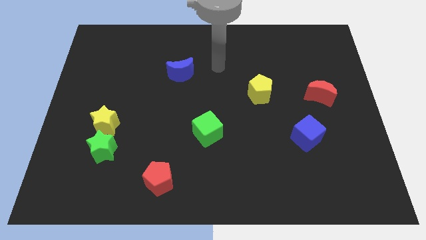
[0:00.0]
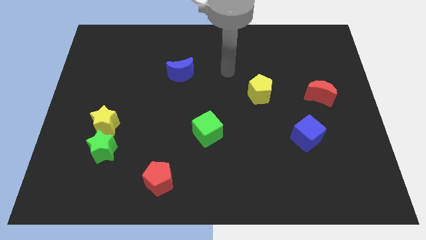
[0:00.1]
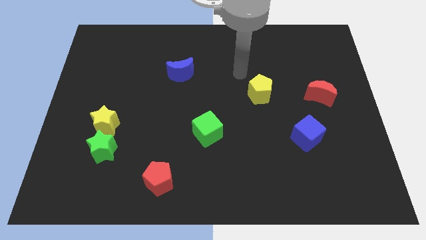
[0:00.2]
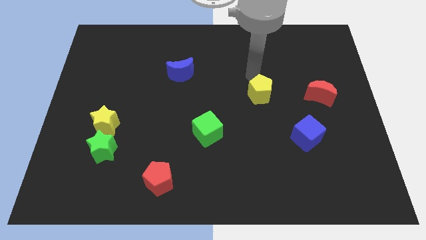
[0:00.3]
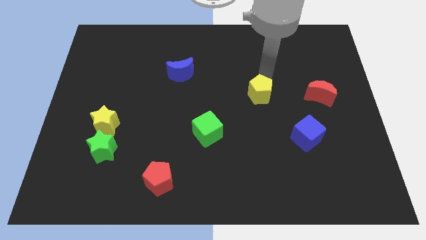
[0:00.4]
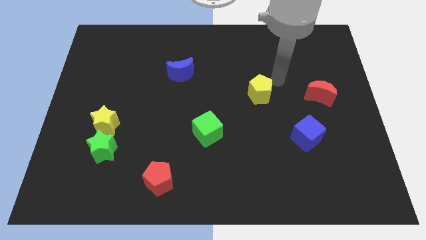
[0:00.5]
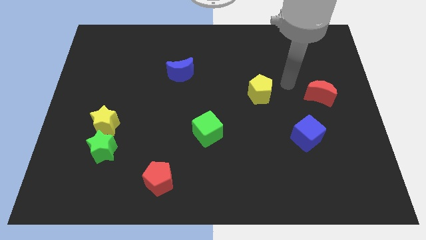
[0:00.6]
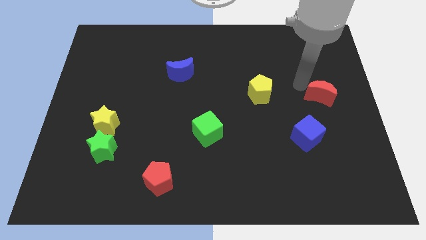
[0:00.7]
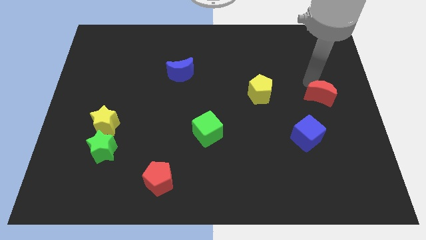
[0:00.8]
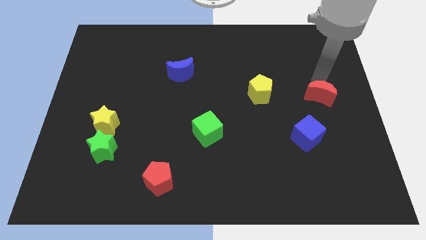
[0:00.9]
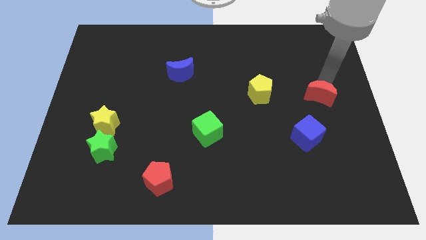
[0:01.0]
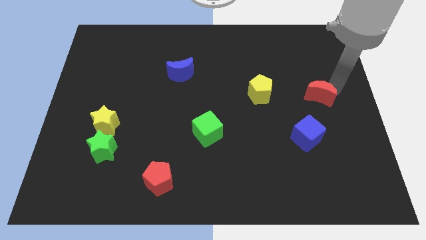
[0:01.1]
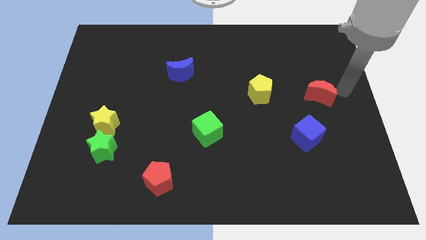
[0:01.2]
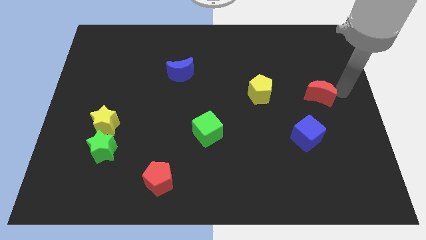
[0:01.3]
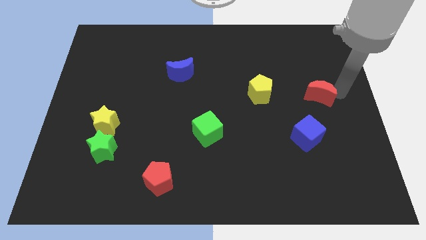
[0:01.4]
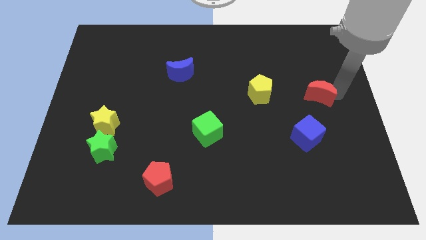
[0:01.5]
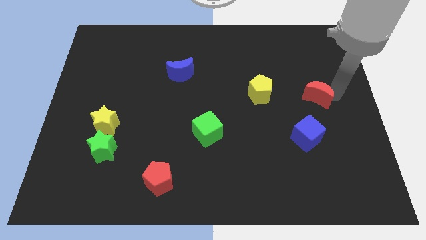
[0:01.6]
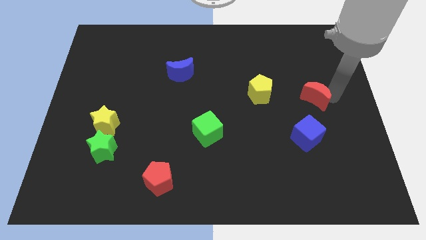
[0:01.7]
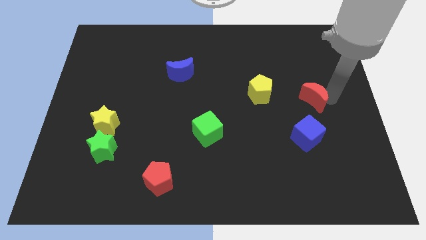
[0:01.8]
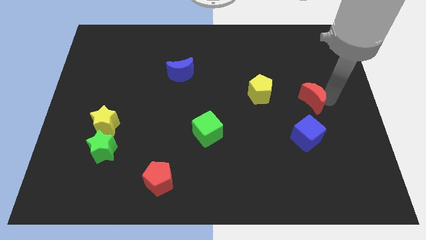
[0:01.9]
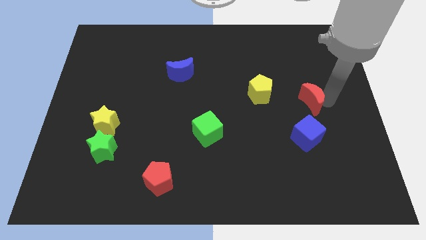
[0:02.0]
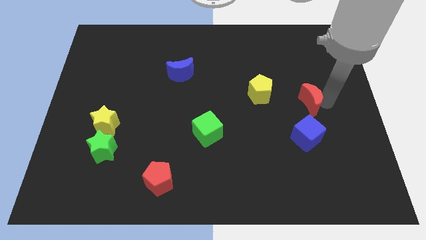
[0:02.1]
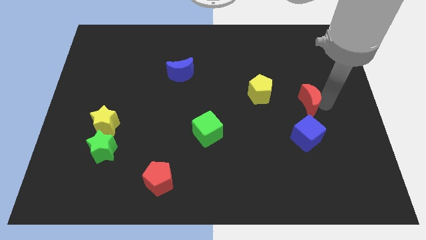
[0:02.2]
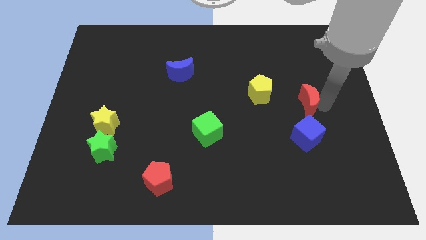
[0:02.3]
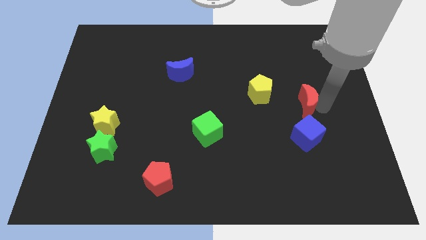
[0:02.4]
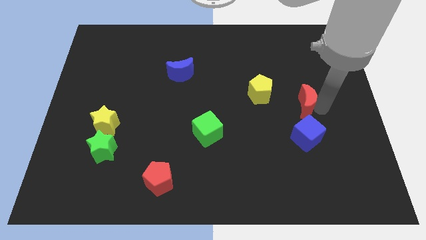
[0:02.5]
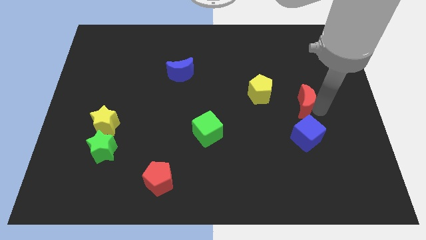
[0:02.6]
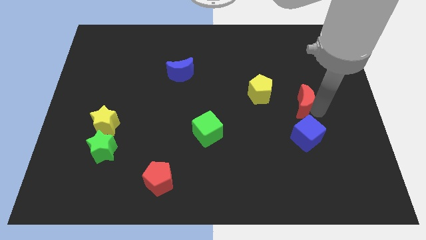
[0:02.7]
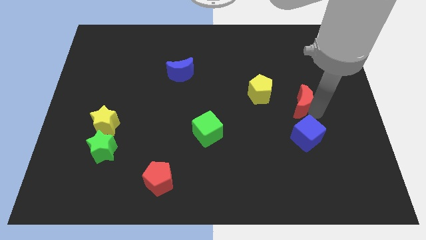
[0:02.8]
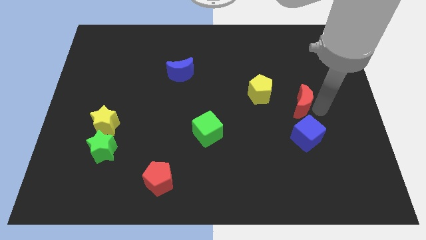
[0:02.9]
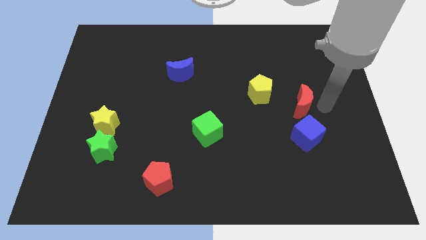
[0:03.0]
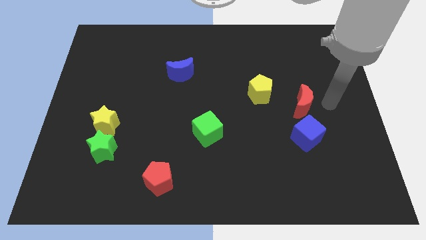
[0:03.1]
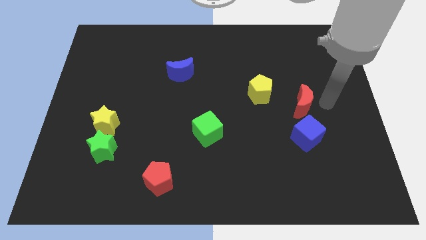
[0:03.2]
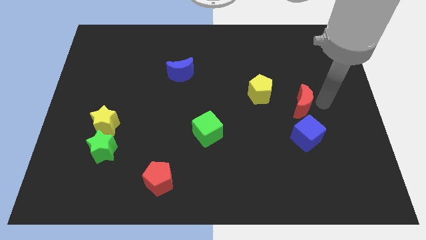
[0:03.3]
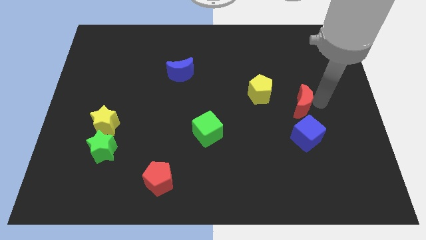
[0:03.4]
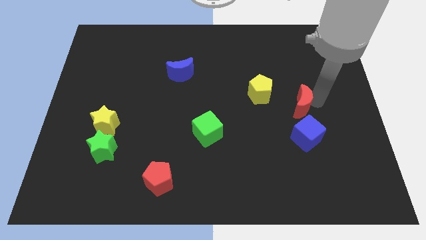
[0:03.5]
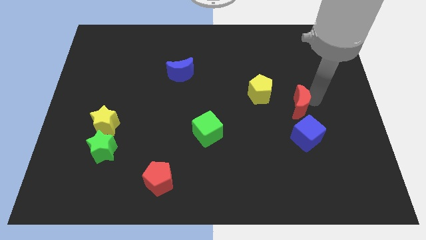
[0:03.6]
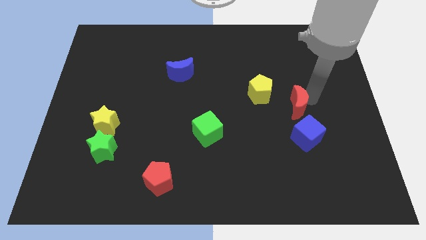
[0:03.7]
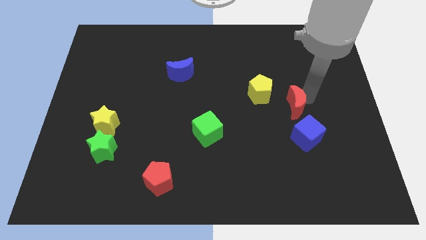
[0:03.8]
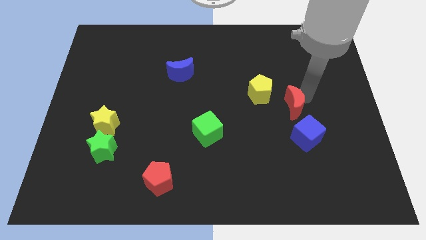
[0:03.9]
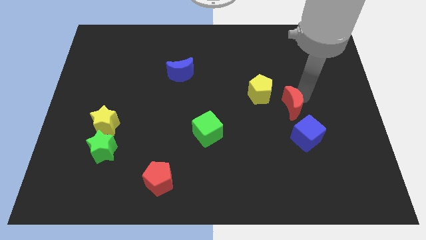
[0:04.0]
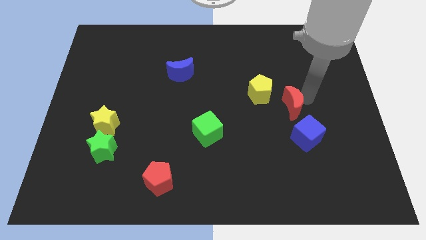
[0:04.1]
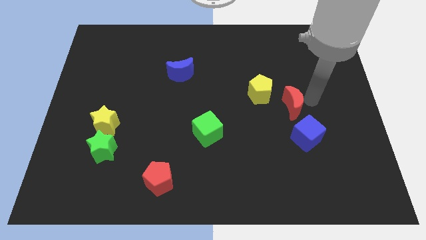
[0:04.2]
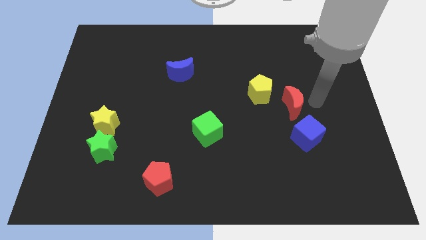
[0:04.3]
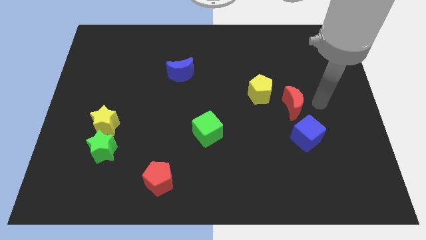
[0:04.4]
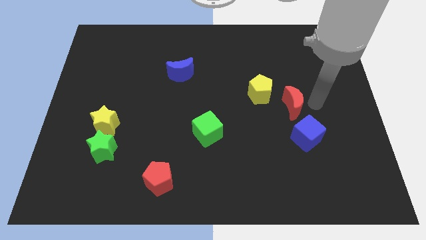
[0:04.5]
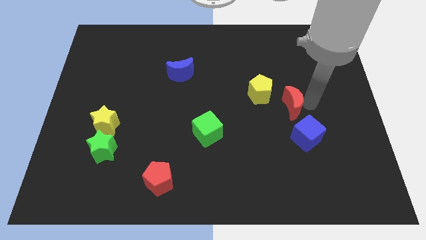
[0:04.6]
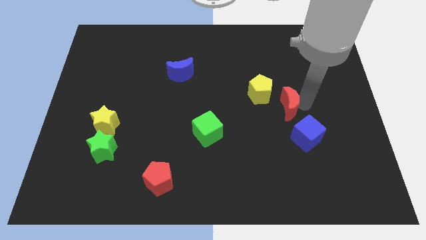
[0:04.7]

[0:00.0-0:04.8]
push the red moon somewhat left

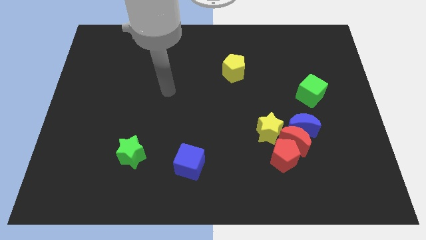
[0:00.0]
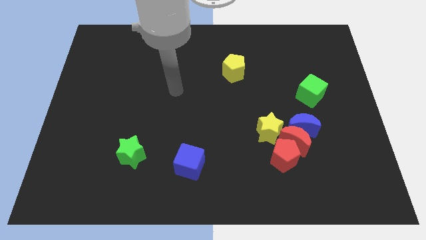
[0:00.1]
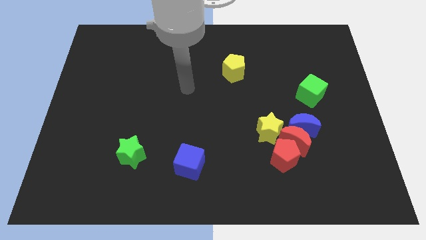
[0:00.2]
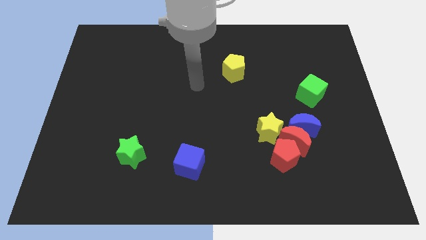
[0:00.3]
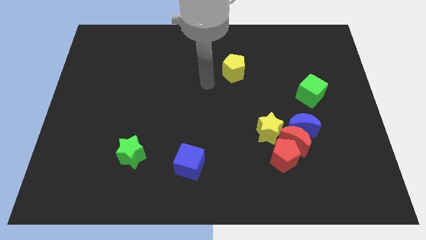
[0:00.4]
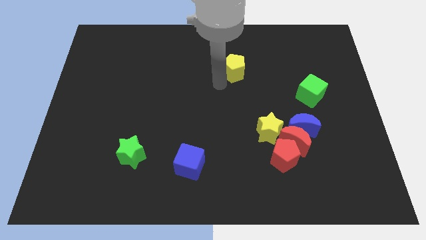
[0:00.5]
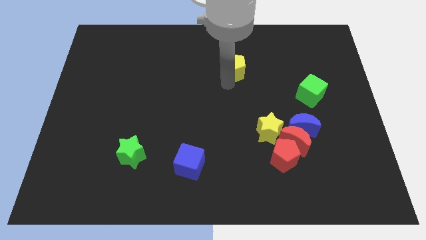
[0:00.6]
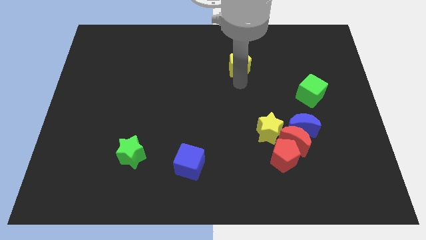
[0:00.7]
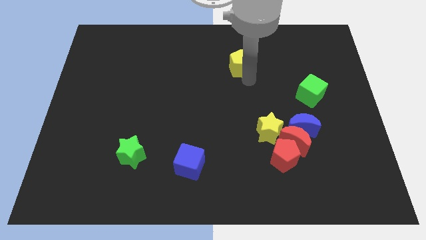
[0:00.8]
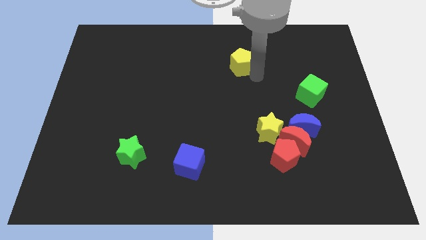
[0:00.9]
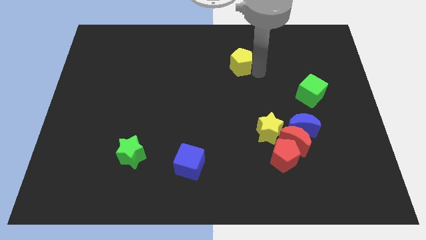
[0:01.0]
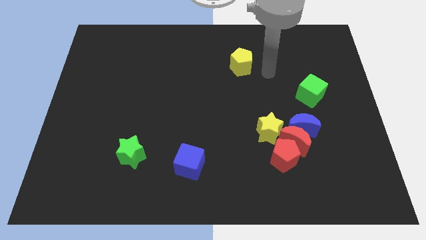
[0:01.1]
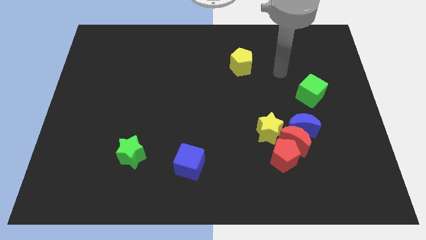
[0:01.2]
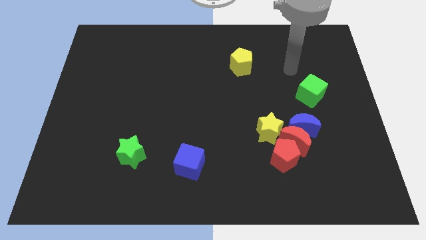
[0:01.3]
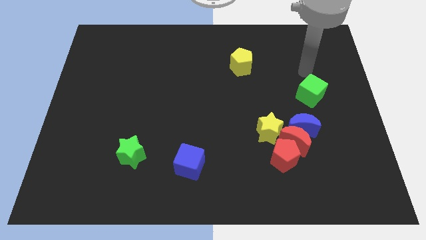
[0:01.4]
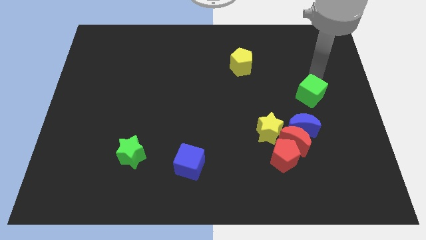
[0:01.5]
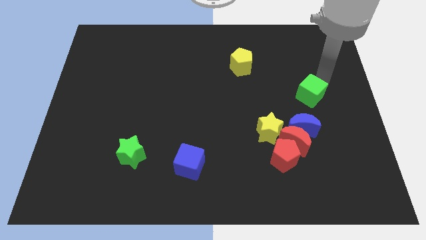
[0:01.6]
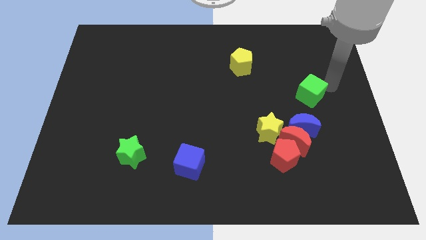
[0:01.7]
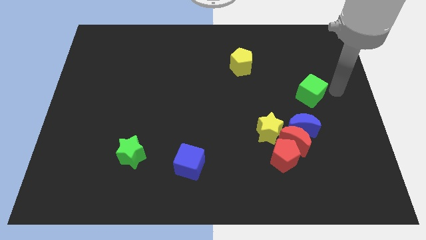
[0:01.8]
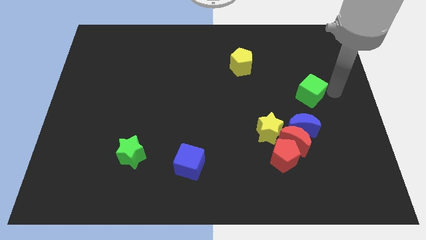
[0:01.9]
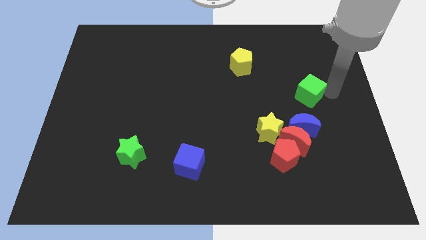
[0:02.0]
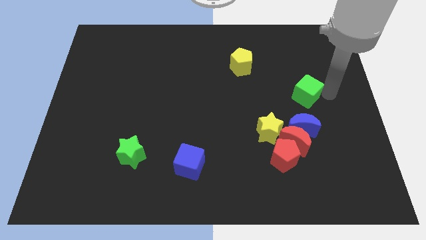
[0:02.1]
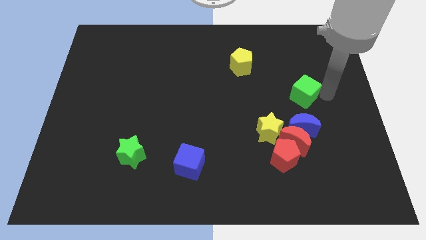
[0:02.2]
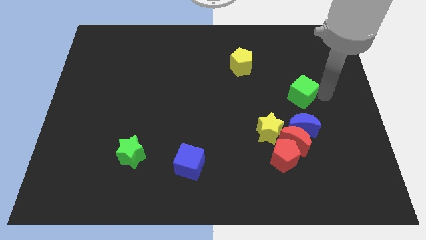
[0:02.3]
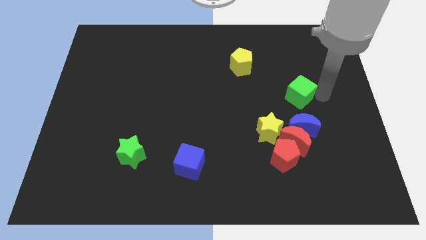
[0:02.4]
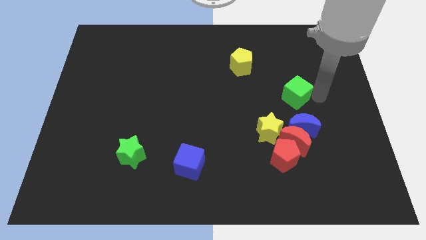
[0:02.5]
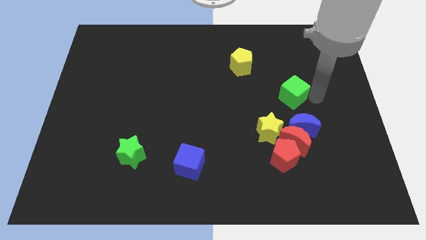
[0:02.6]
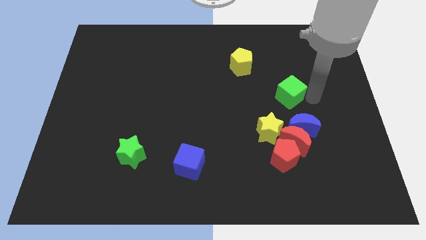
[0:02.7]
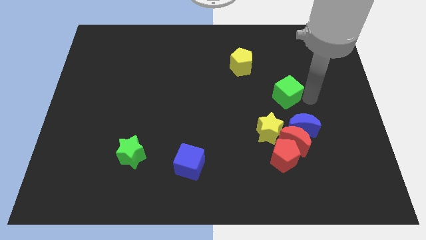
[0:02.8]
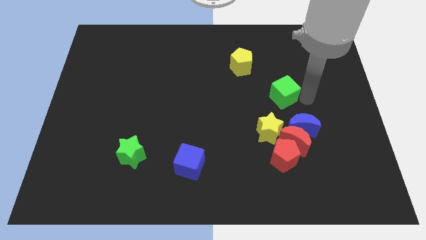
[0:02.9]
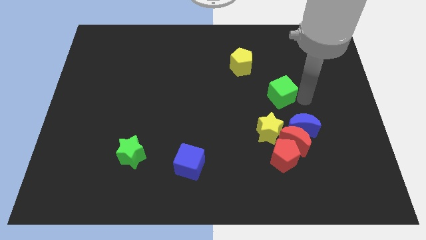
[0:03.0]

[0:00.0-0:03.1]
slightly push the green cube left
